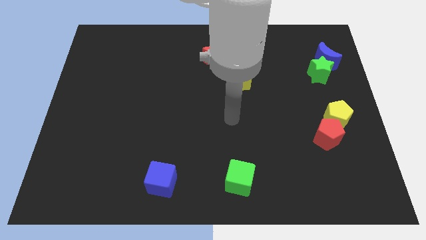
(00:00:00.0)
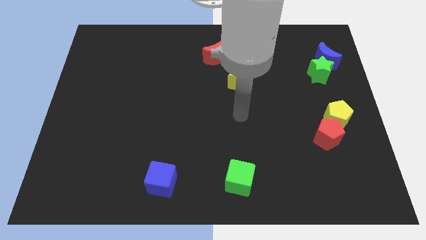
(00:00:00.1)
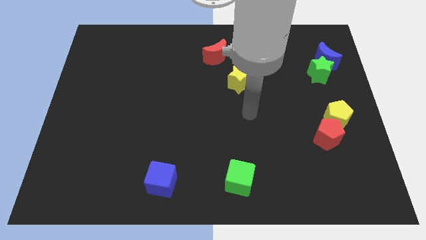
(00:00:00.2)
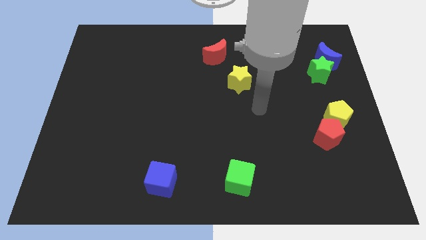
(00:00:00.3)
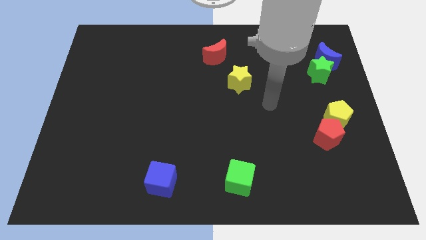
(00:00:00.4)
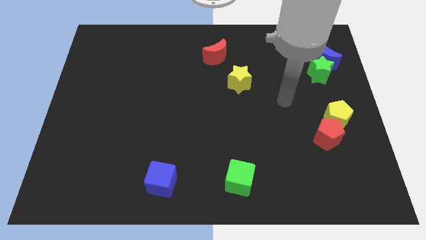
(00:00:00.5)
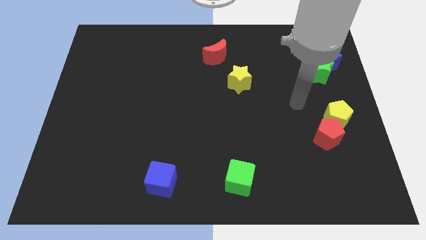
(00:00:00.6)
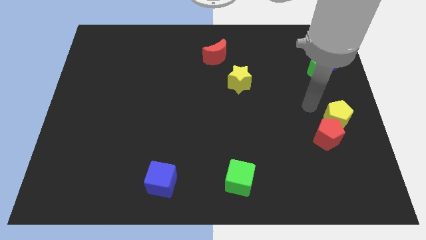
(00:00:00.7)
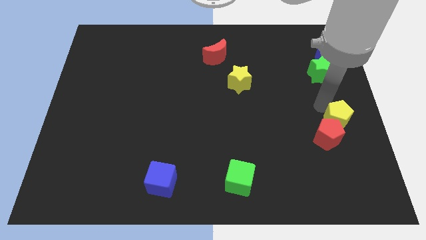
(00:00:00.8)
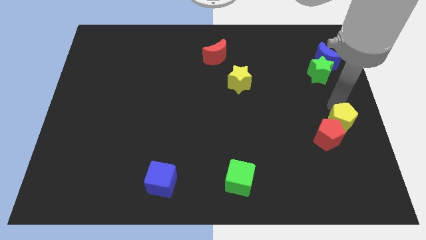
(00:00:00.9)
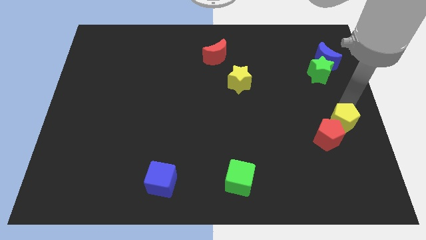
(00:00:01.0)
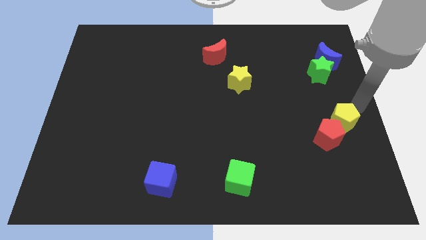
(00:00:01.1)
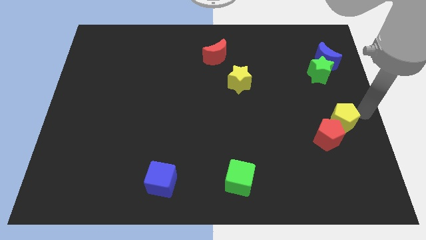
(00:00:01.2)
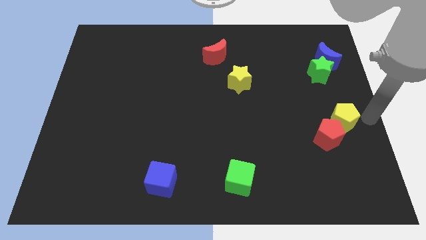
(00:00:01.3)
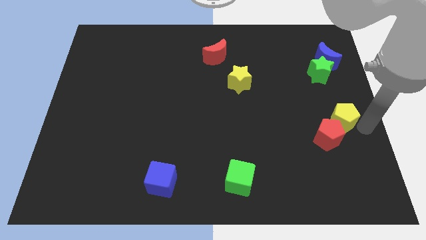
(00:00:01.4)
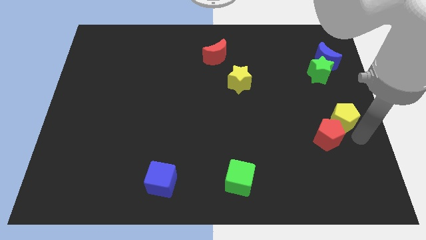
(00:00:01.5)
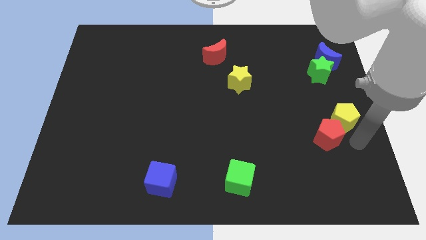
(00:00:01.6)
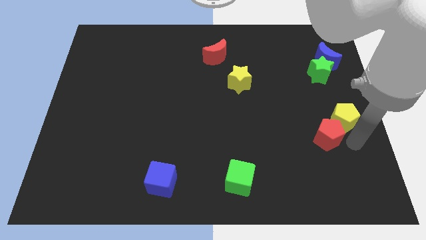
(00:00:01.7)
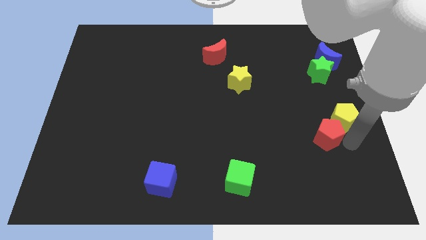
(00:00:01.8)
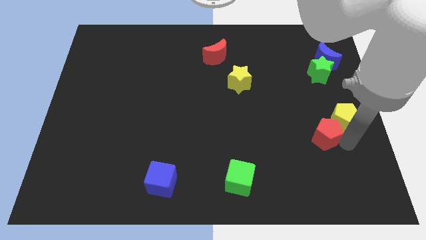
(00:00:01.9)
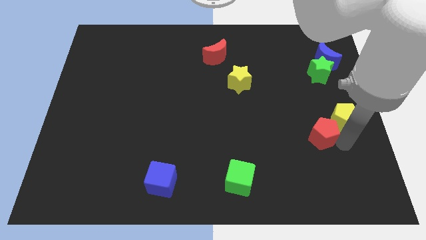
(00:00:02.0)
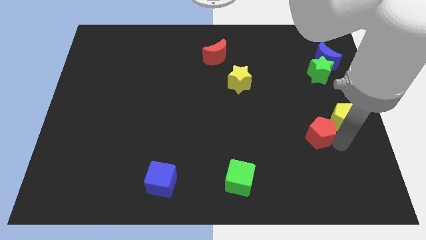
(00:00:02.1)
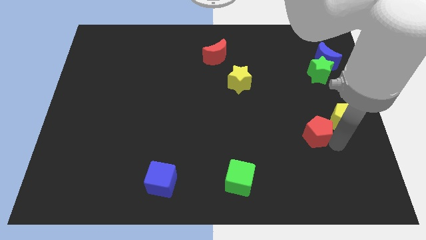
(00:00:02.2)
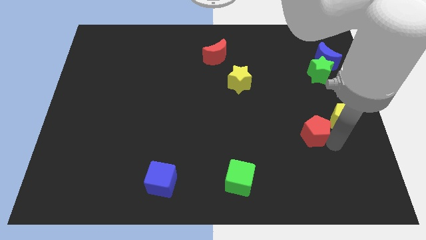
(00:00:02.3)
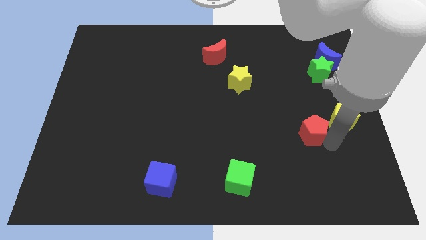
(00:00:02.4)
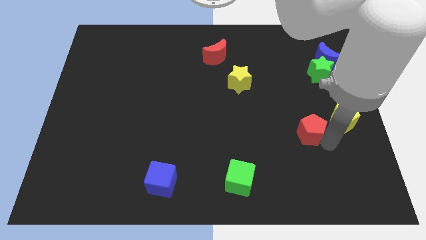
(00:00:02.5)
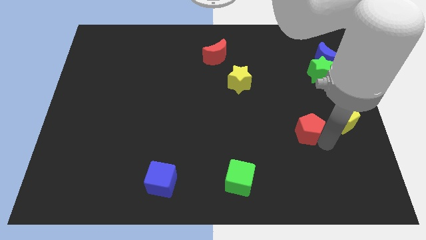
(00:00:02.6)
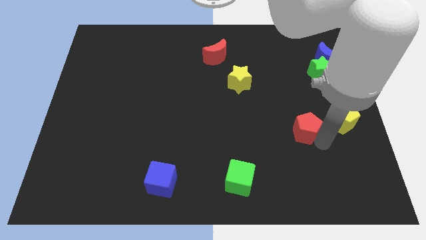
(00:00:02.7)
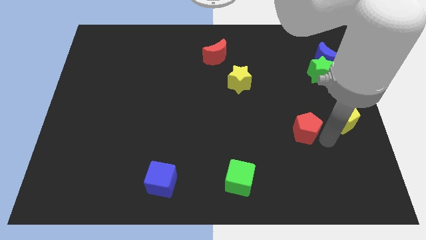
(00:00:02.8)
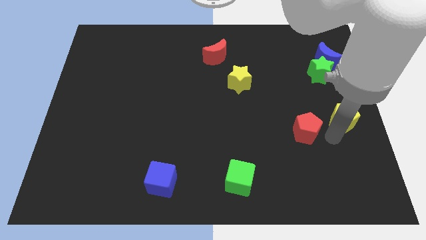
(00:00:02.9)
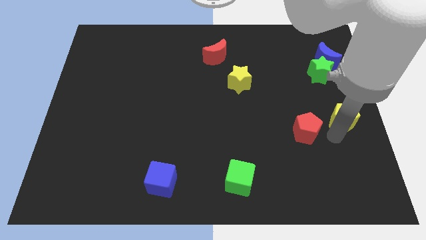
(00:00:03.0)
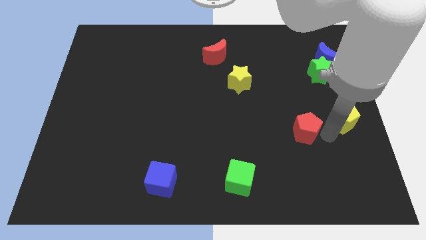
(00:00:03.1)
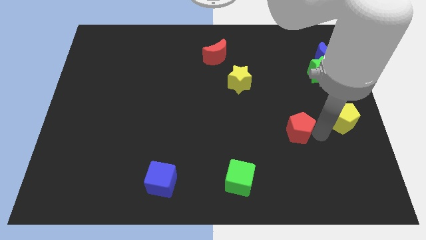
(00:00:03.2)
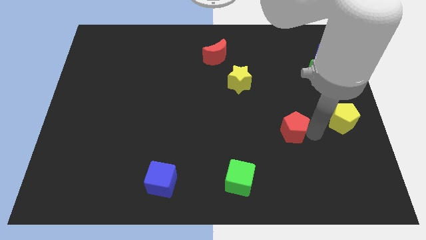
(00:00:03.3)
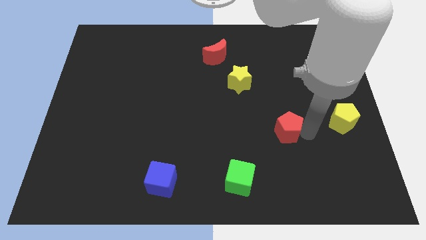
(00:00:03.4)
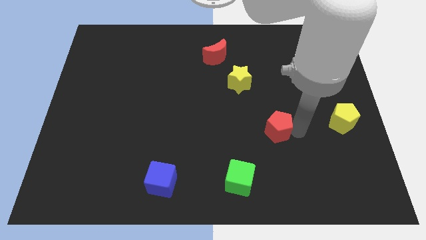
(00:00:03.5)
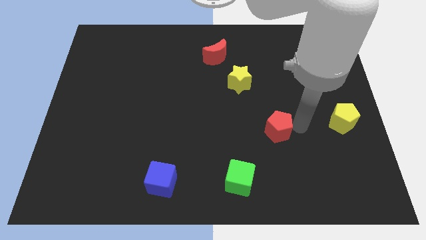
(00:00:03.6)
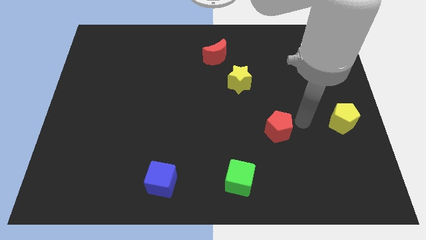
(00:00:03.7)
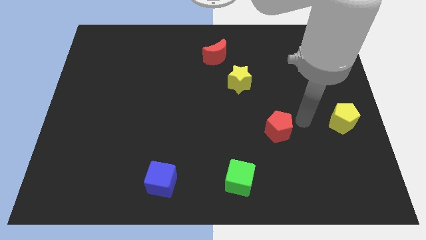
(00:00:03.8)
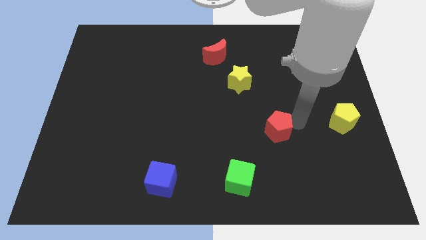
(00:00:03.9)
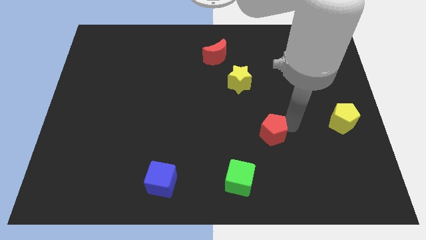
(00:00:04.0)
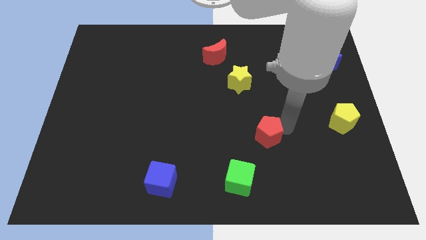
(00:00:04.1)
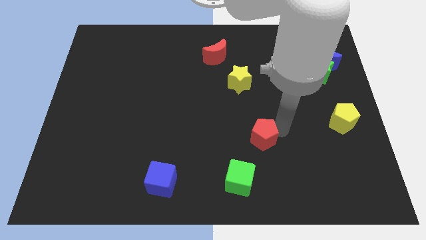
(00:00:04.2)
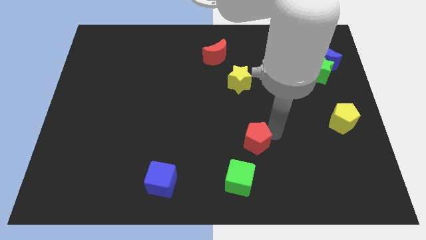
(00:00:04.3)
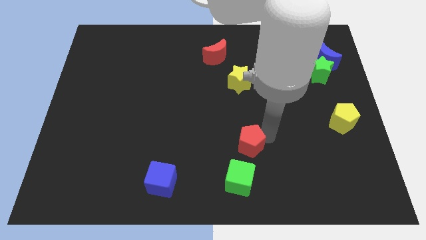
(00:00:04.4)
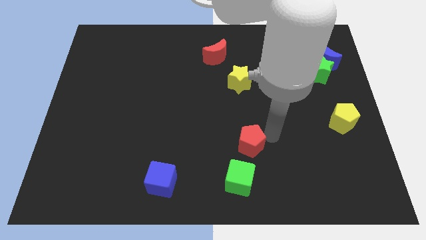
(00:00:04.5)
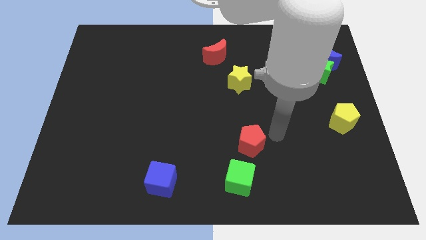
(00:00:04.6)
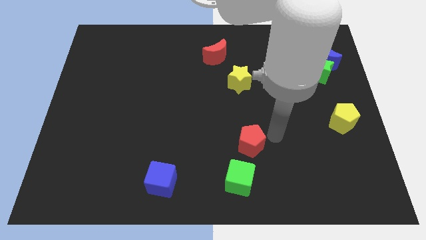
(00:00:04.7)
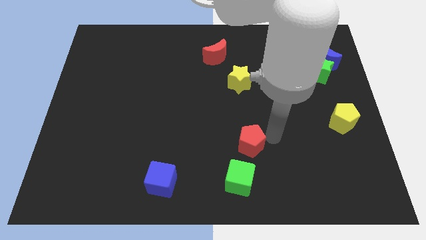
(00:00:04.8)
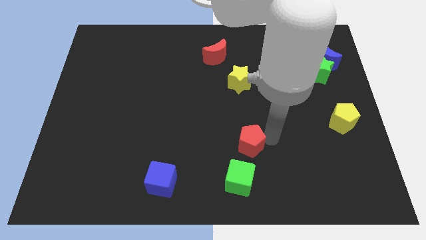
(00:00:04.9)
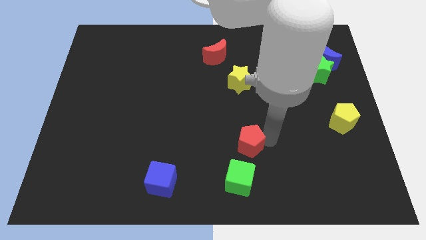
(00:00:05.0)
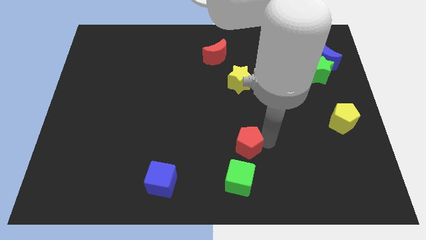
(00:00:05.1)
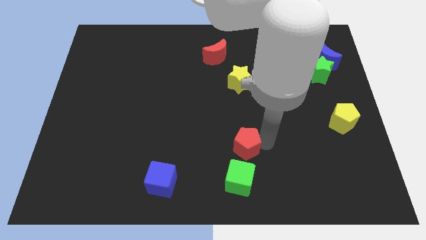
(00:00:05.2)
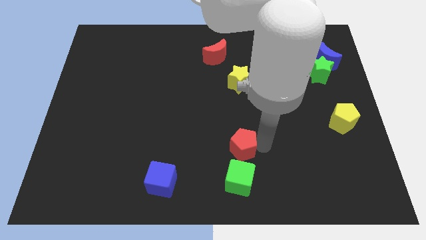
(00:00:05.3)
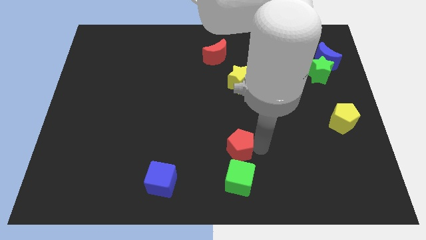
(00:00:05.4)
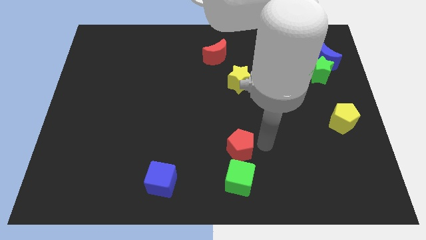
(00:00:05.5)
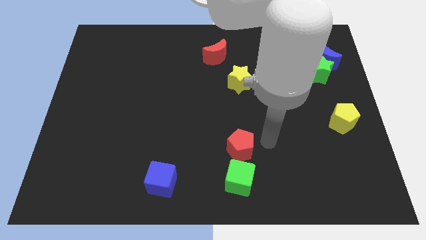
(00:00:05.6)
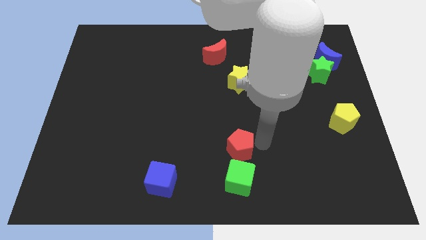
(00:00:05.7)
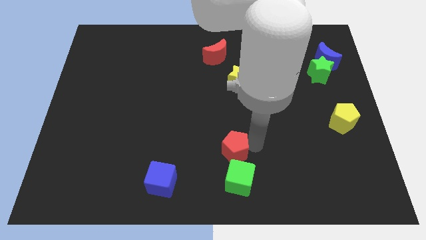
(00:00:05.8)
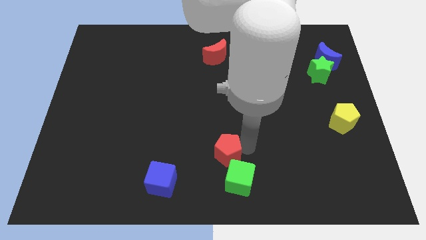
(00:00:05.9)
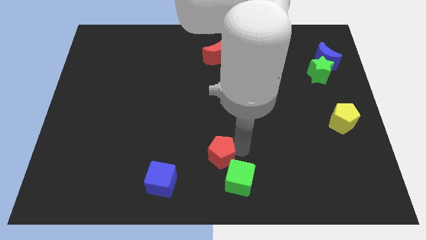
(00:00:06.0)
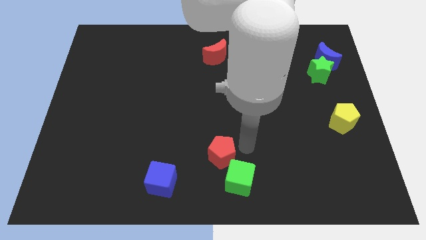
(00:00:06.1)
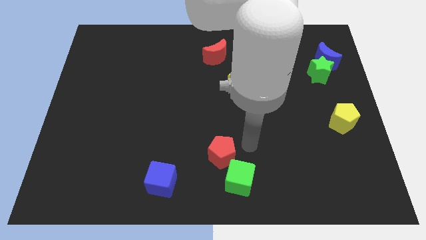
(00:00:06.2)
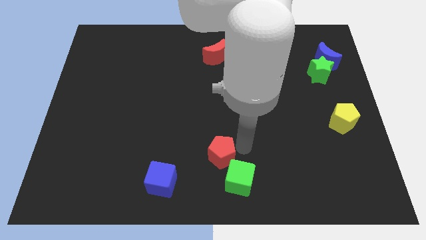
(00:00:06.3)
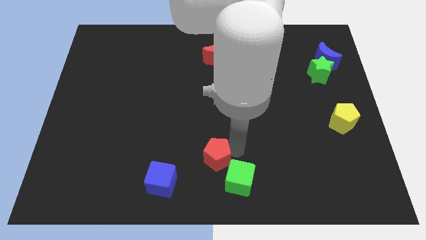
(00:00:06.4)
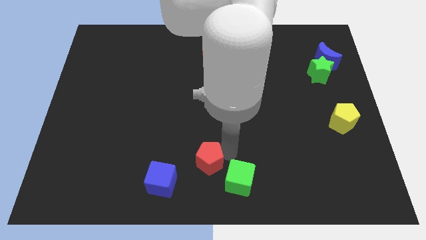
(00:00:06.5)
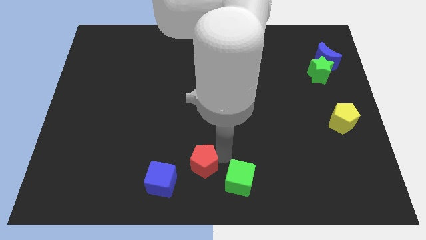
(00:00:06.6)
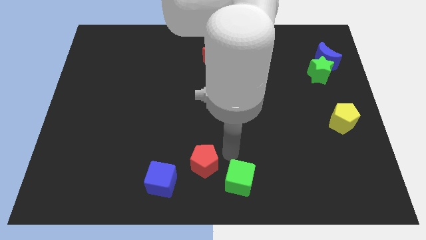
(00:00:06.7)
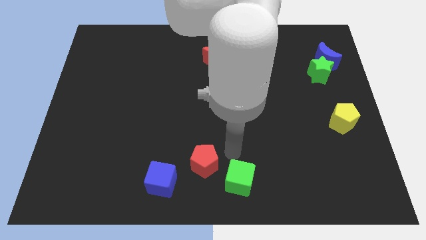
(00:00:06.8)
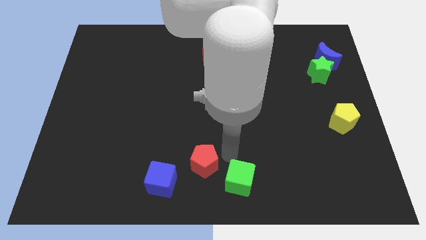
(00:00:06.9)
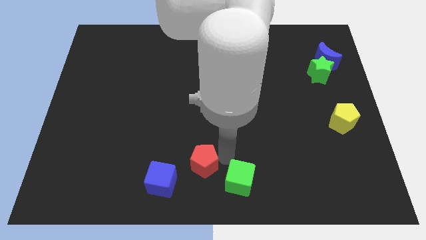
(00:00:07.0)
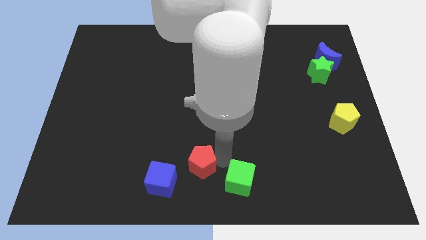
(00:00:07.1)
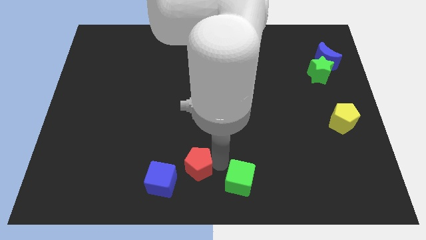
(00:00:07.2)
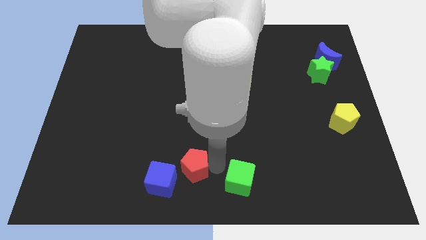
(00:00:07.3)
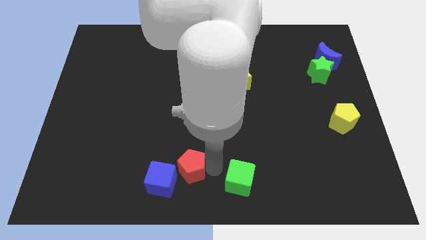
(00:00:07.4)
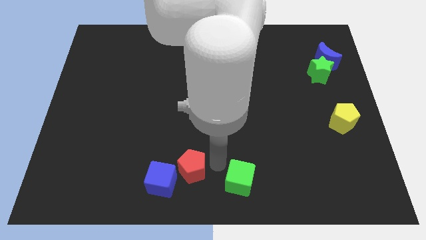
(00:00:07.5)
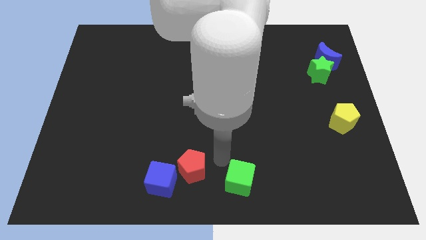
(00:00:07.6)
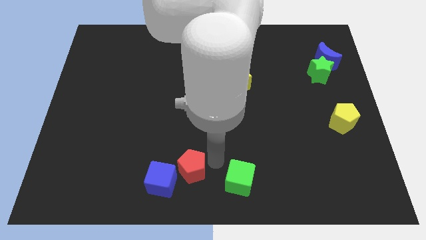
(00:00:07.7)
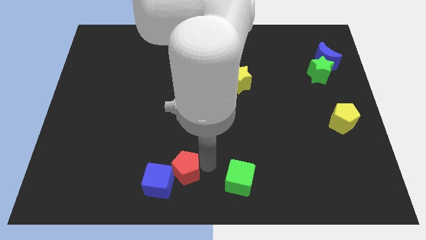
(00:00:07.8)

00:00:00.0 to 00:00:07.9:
move the red pentagon next to the blue cube
